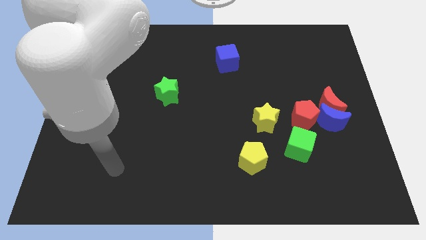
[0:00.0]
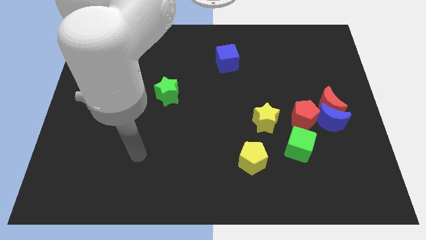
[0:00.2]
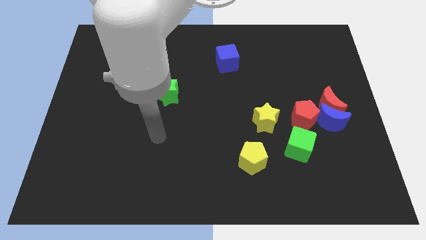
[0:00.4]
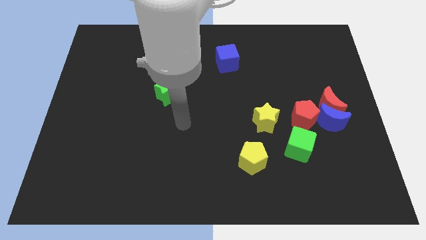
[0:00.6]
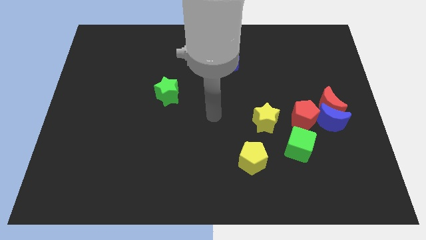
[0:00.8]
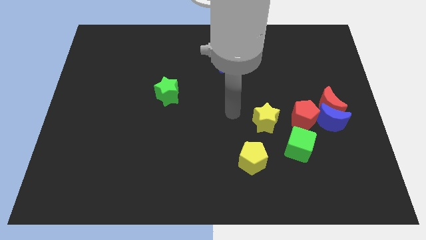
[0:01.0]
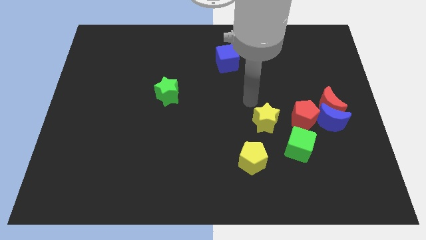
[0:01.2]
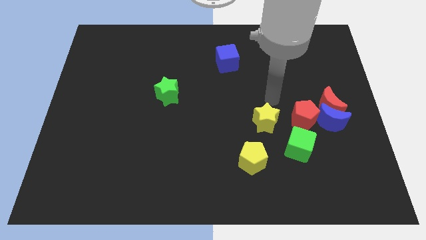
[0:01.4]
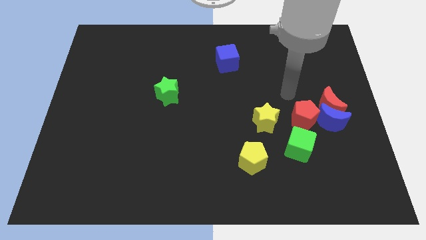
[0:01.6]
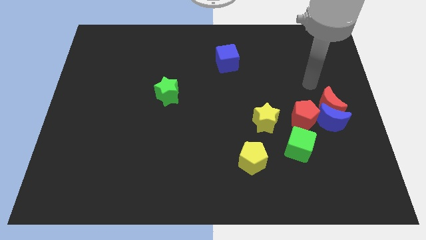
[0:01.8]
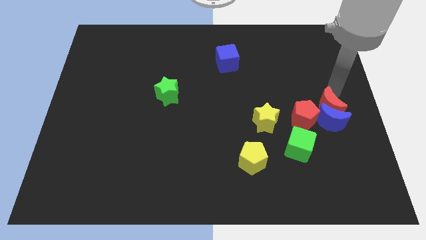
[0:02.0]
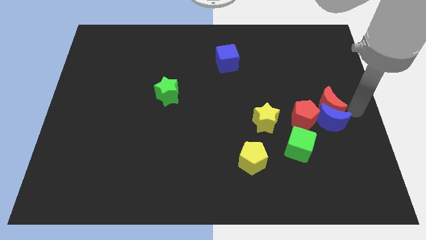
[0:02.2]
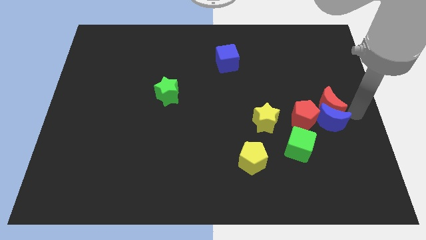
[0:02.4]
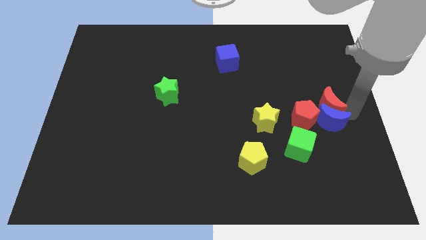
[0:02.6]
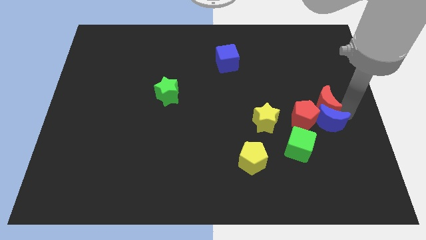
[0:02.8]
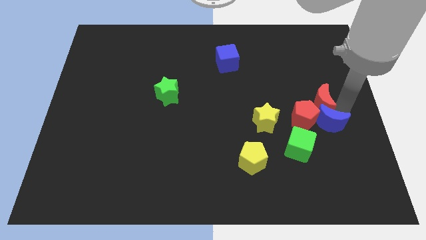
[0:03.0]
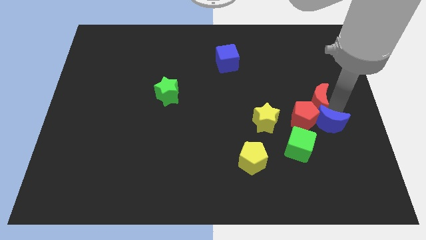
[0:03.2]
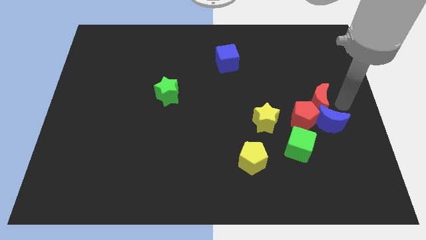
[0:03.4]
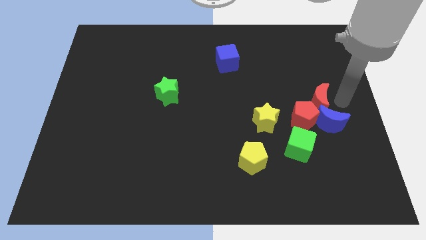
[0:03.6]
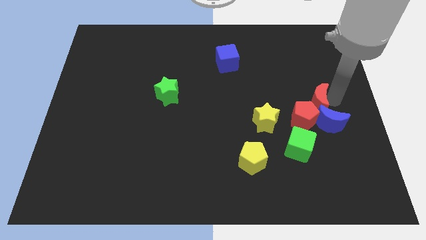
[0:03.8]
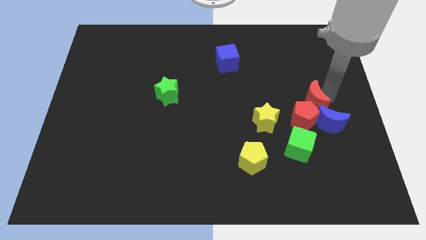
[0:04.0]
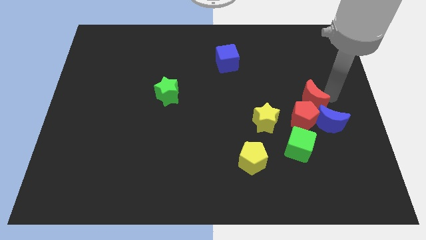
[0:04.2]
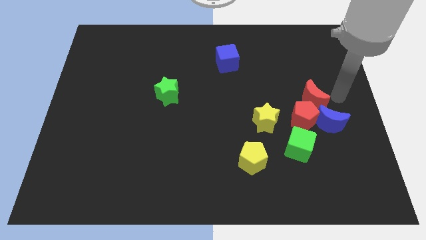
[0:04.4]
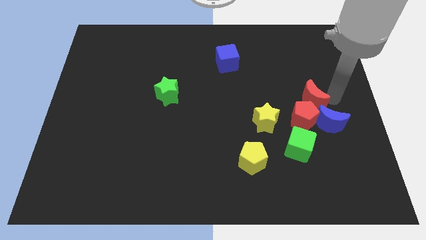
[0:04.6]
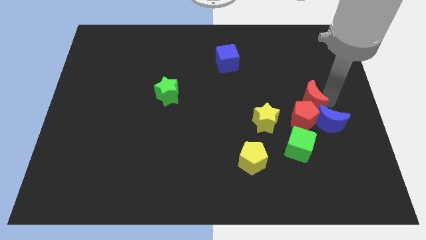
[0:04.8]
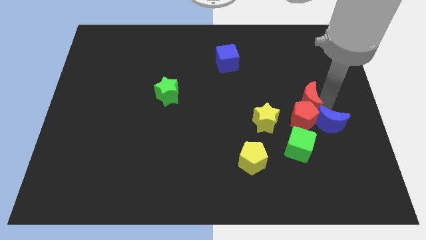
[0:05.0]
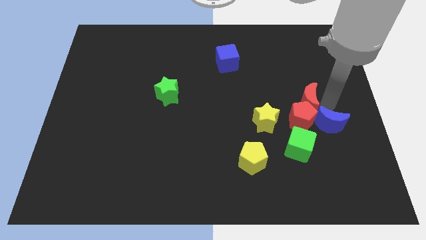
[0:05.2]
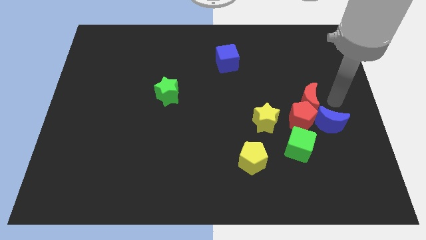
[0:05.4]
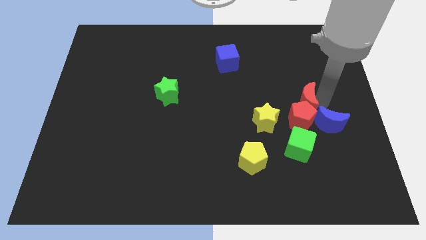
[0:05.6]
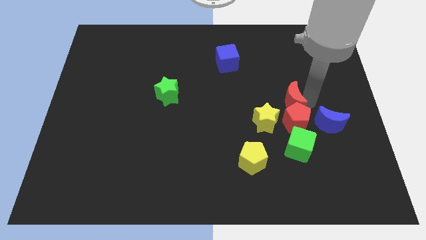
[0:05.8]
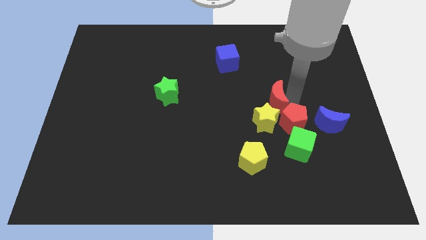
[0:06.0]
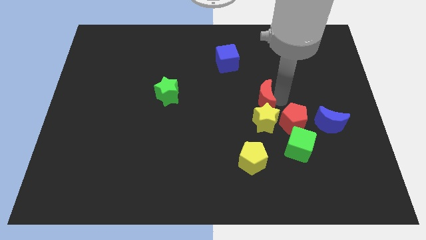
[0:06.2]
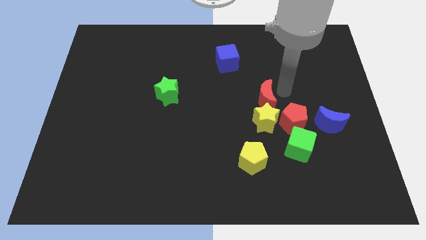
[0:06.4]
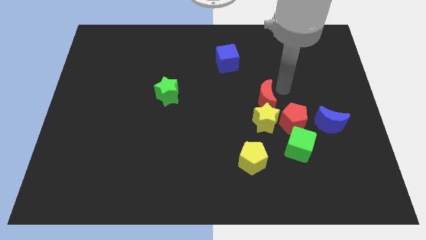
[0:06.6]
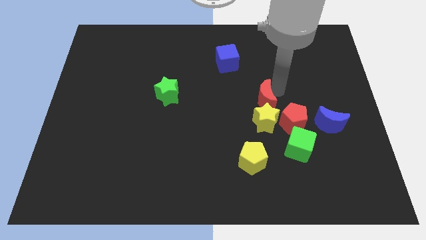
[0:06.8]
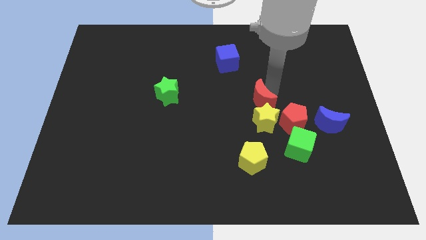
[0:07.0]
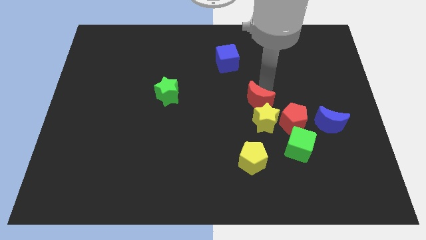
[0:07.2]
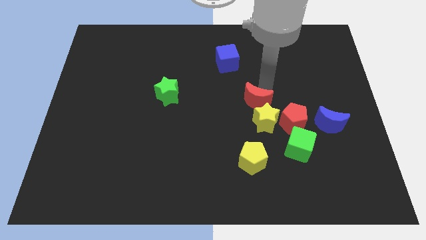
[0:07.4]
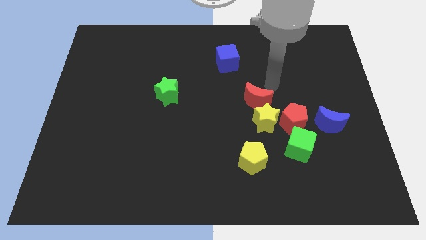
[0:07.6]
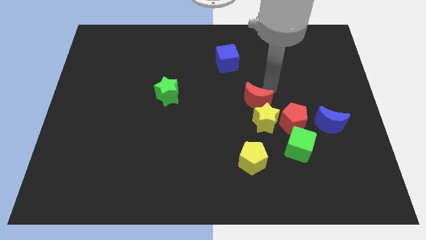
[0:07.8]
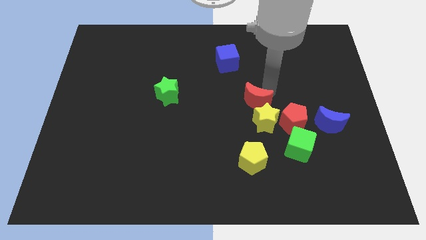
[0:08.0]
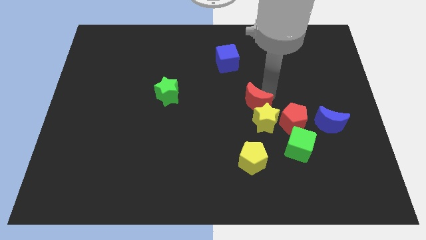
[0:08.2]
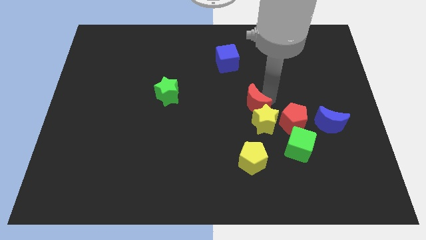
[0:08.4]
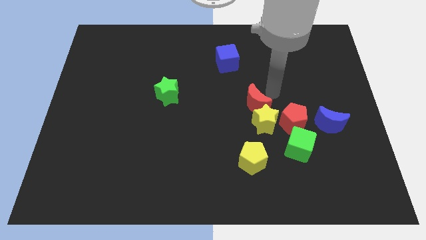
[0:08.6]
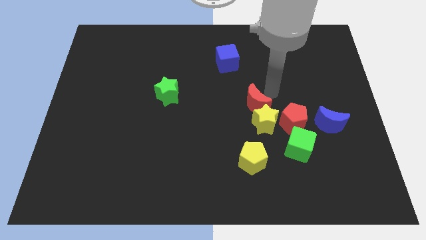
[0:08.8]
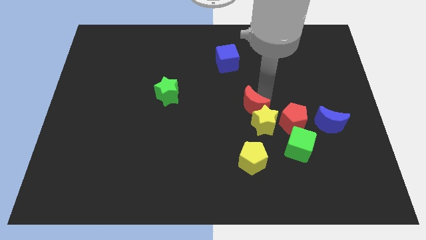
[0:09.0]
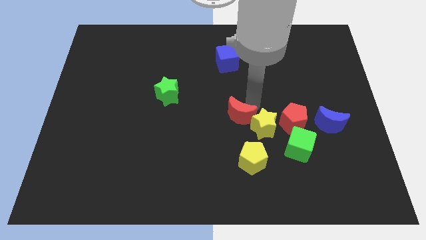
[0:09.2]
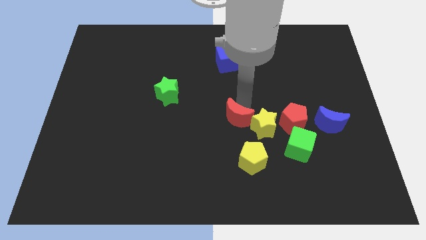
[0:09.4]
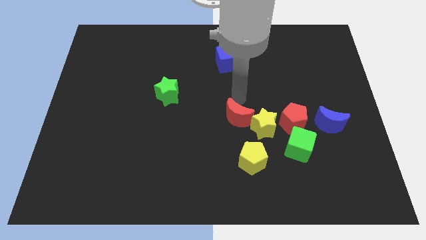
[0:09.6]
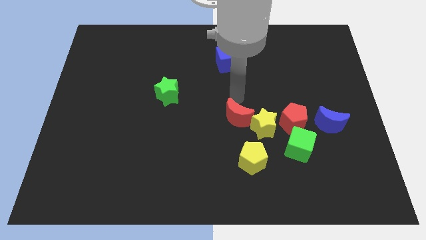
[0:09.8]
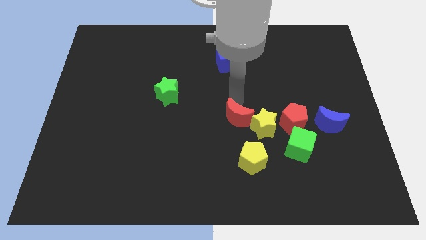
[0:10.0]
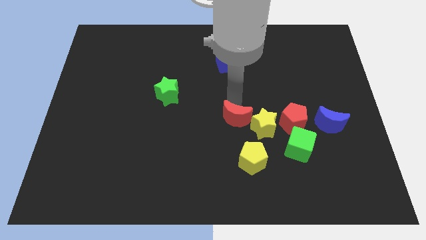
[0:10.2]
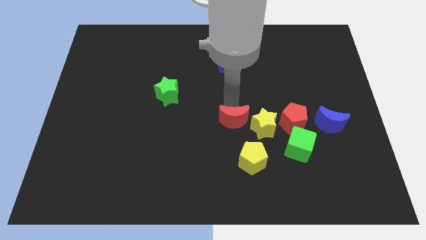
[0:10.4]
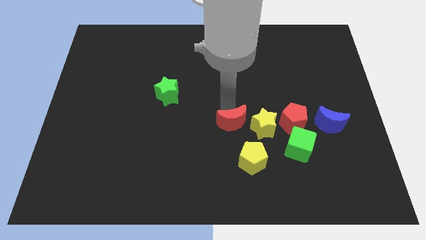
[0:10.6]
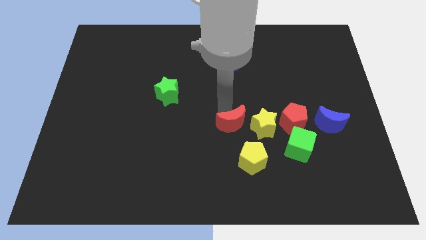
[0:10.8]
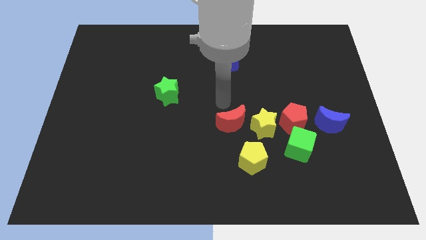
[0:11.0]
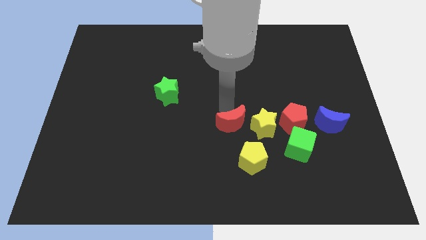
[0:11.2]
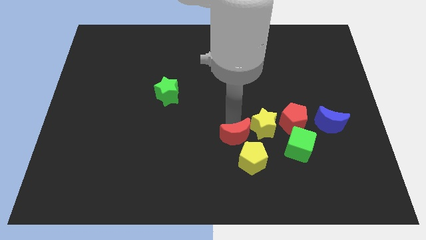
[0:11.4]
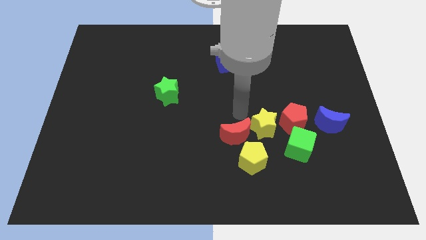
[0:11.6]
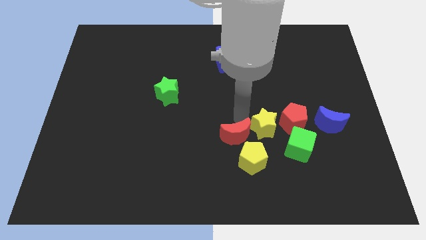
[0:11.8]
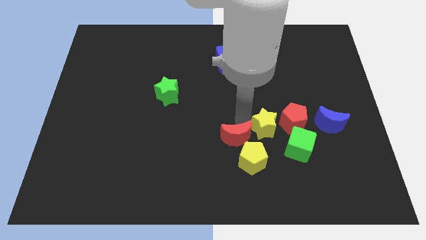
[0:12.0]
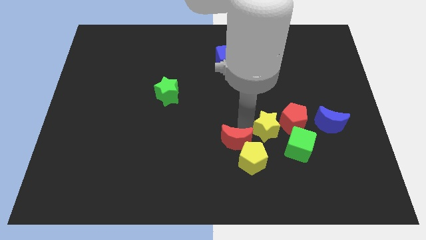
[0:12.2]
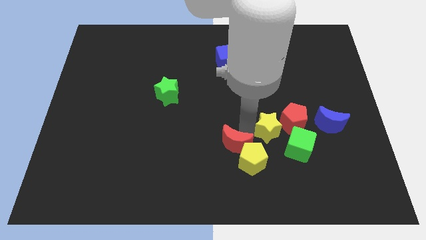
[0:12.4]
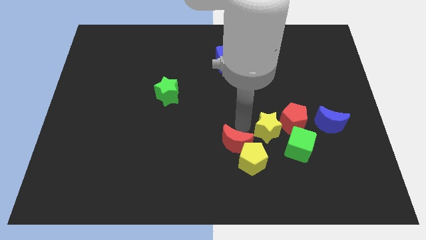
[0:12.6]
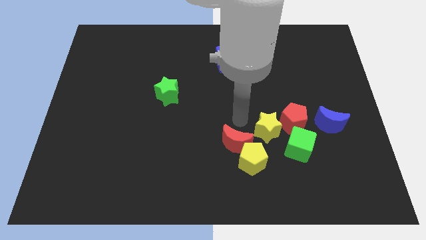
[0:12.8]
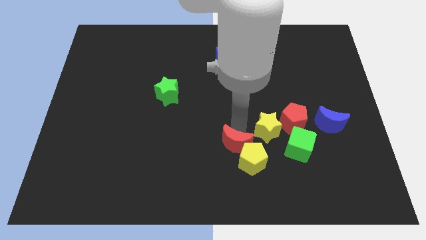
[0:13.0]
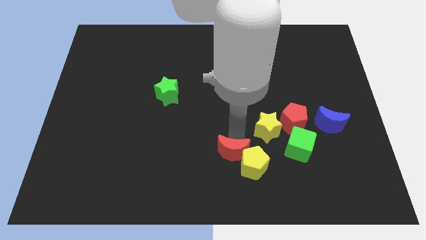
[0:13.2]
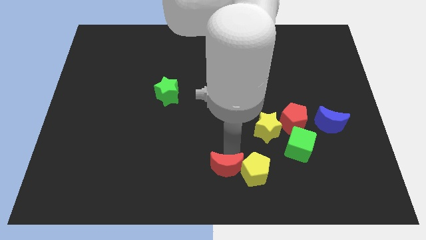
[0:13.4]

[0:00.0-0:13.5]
move the red moon to the bottom left of the yellow pentagon
